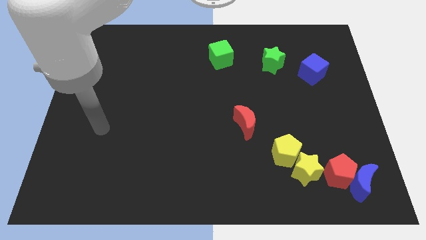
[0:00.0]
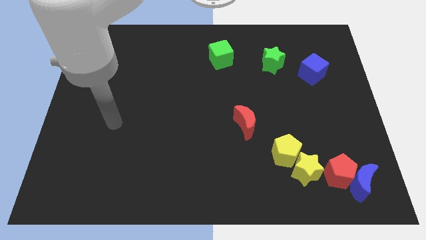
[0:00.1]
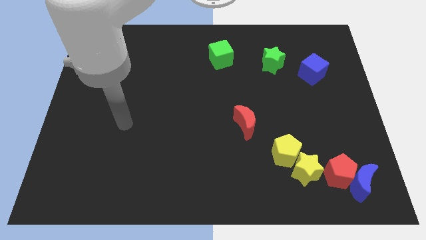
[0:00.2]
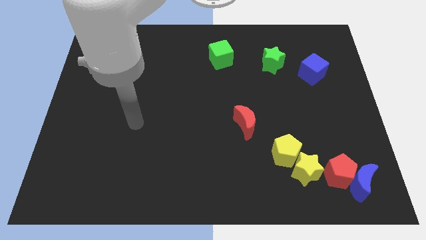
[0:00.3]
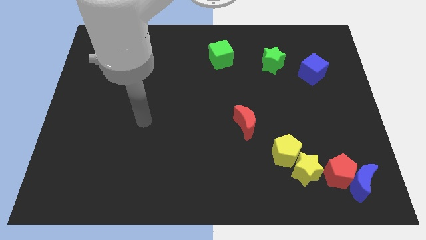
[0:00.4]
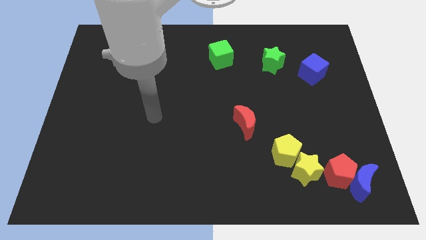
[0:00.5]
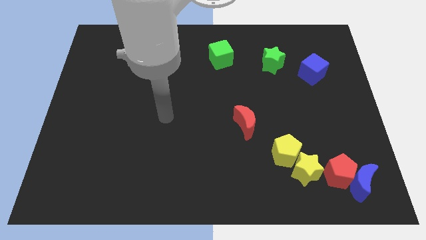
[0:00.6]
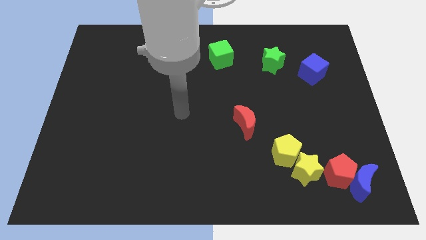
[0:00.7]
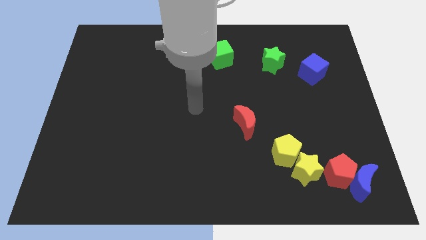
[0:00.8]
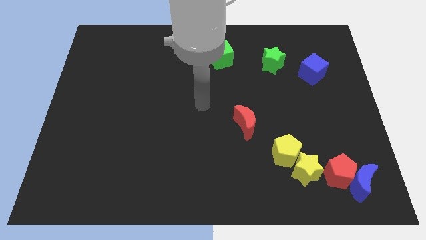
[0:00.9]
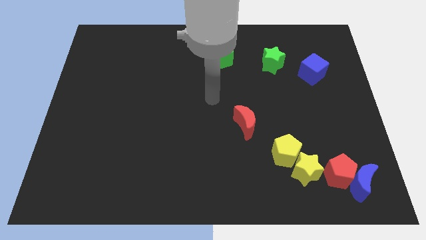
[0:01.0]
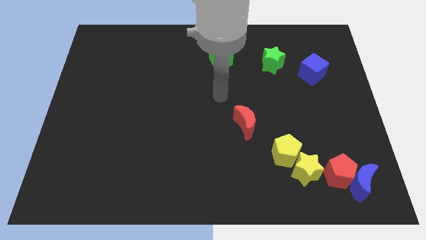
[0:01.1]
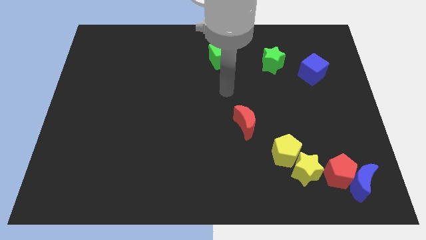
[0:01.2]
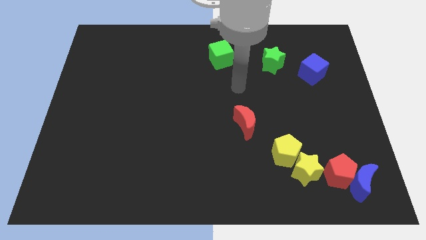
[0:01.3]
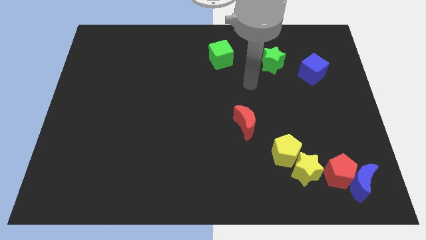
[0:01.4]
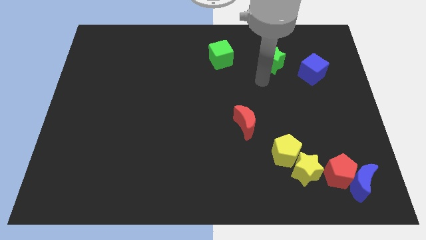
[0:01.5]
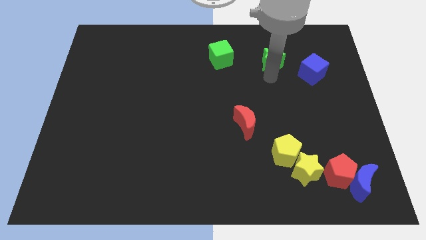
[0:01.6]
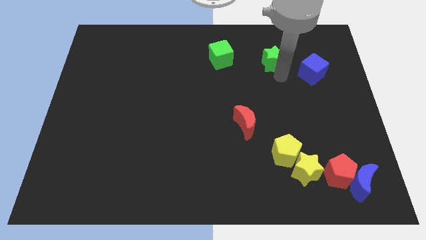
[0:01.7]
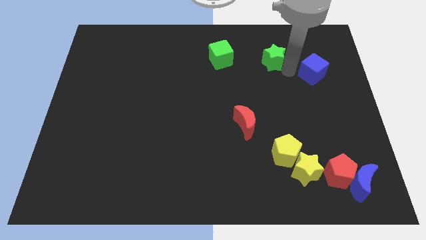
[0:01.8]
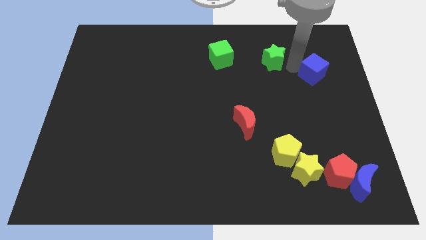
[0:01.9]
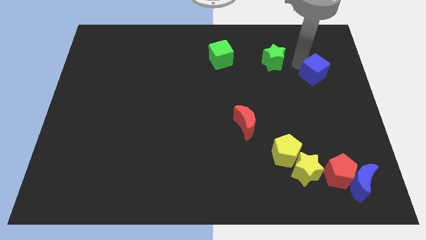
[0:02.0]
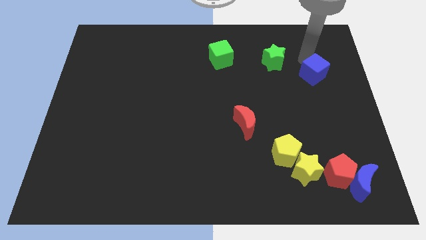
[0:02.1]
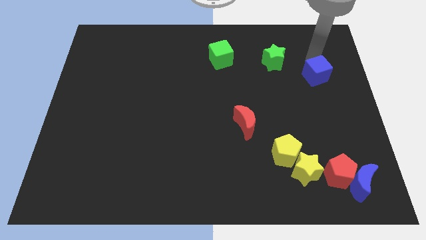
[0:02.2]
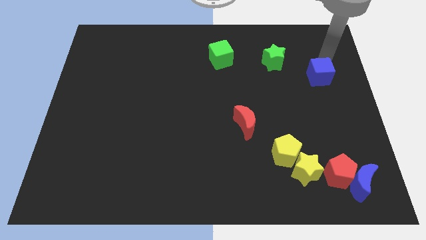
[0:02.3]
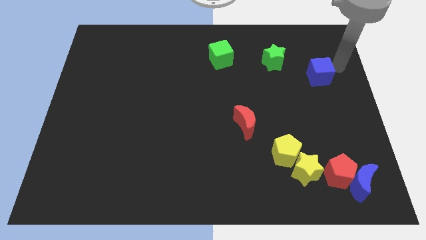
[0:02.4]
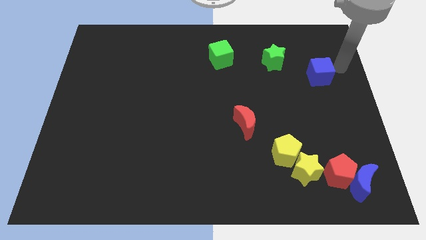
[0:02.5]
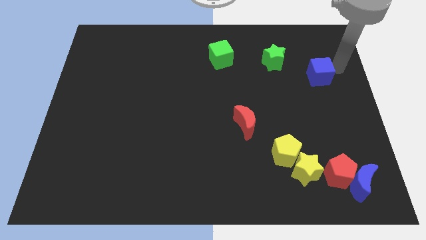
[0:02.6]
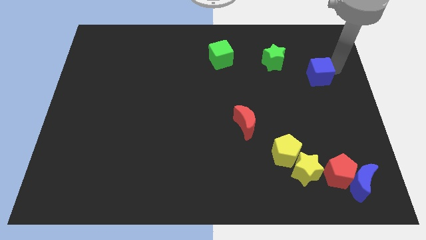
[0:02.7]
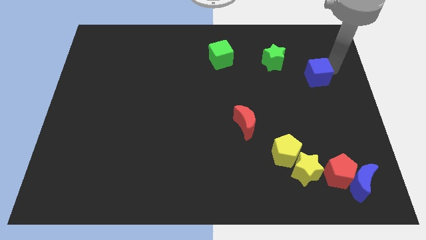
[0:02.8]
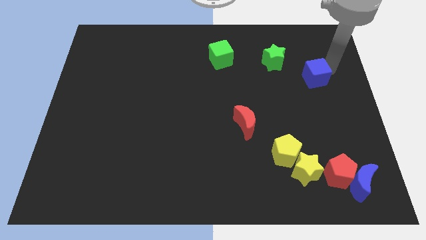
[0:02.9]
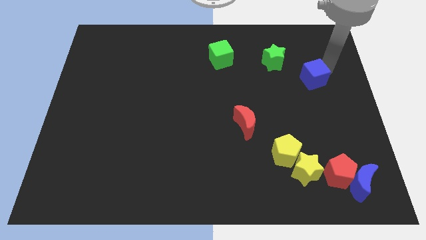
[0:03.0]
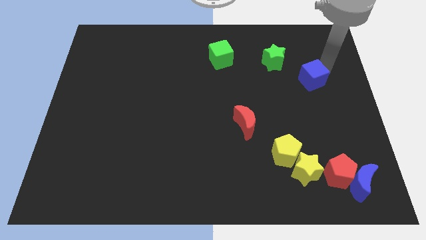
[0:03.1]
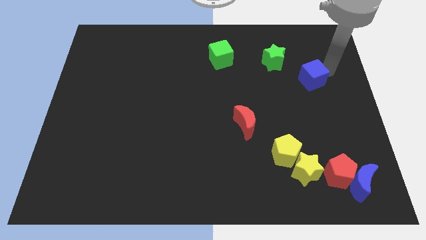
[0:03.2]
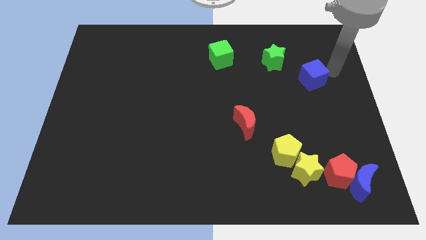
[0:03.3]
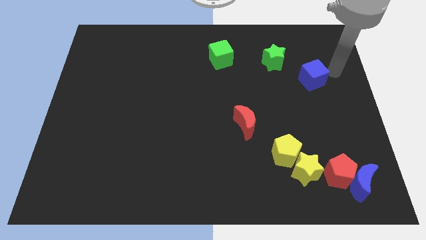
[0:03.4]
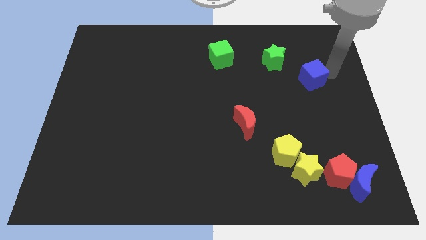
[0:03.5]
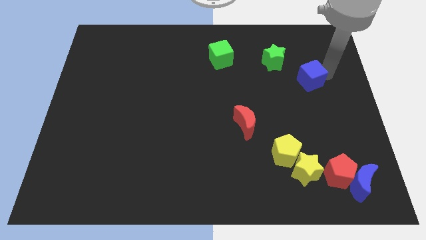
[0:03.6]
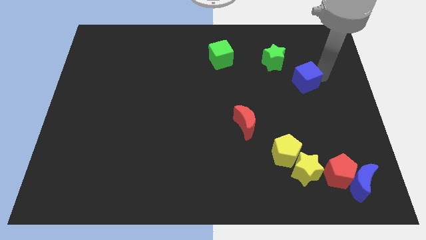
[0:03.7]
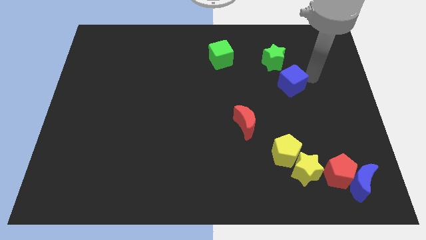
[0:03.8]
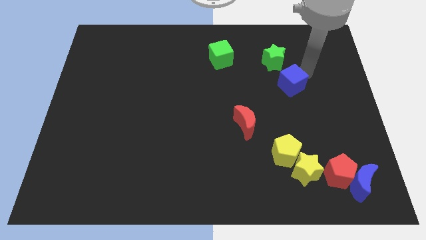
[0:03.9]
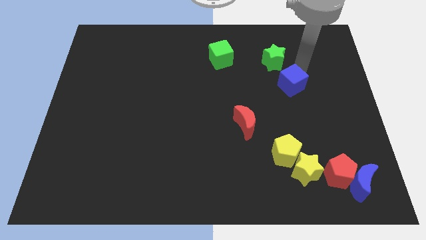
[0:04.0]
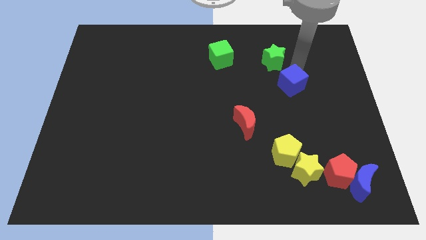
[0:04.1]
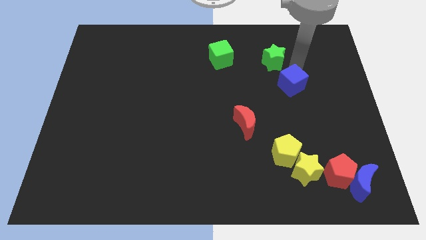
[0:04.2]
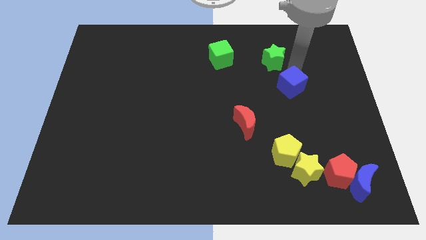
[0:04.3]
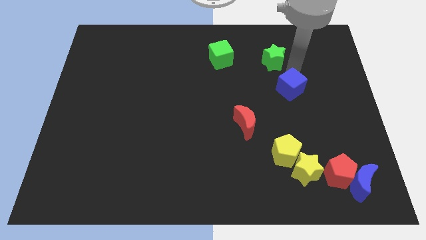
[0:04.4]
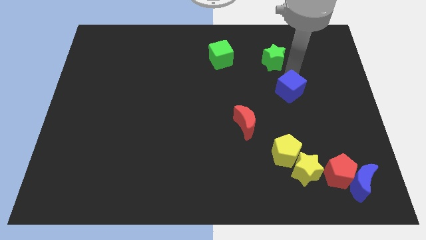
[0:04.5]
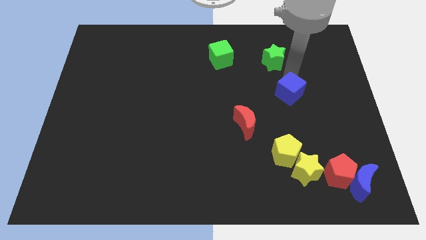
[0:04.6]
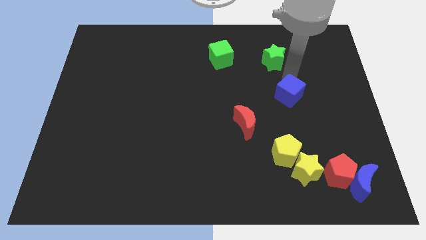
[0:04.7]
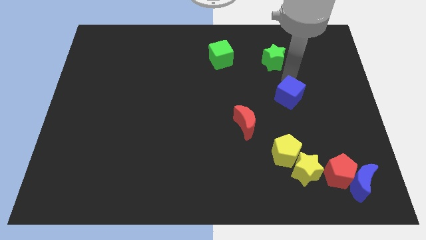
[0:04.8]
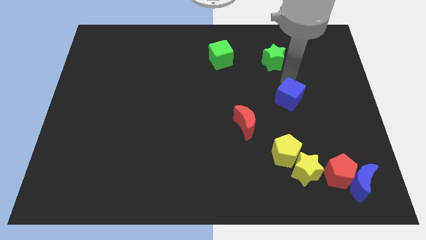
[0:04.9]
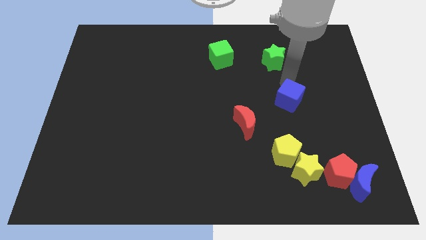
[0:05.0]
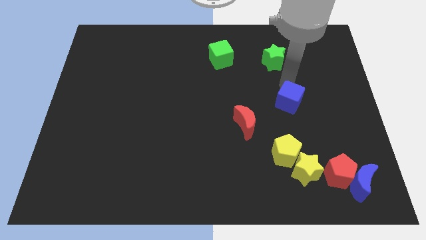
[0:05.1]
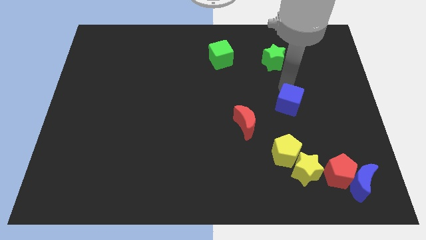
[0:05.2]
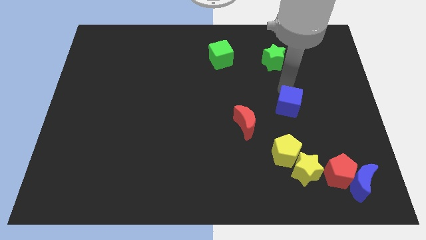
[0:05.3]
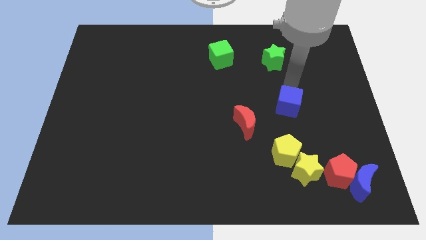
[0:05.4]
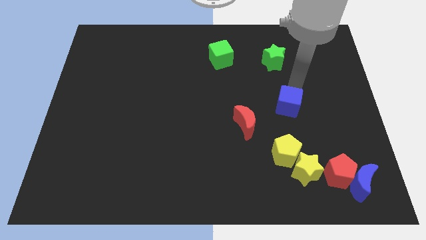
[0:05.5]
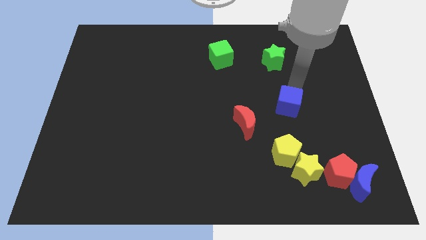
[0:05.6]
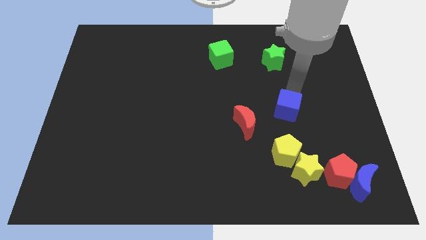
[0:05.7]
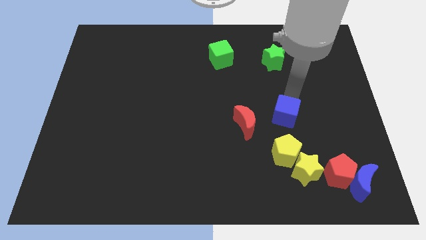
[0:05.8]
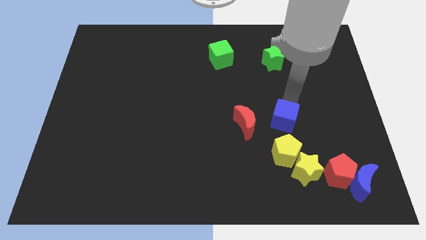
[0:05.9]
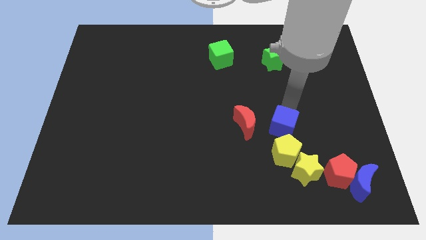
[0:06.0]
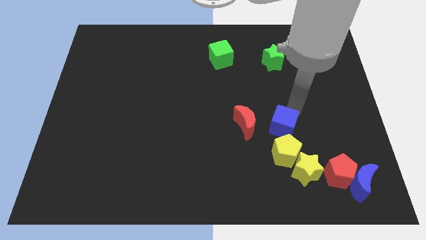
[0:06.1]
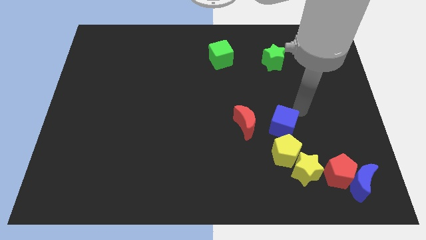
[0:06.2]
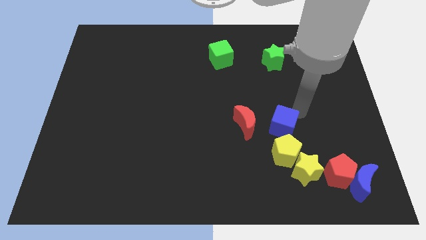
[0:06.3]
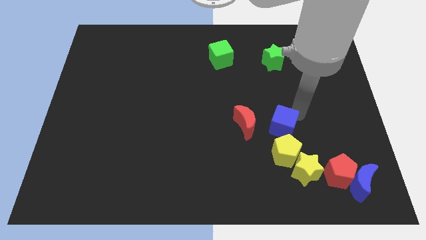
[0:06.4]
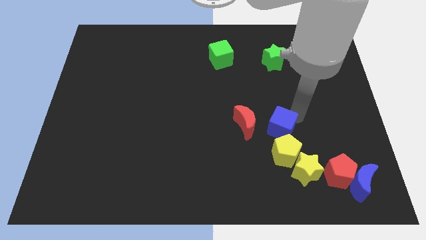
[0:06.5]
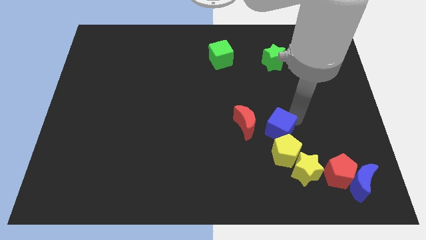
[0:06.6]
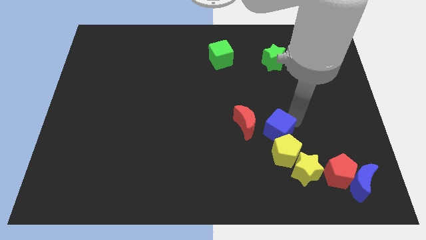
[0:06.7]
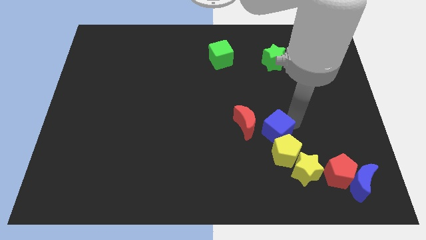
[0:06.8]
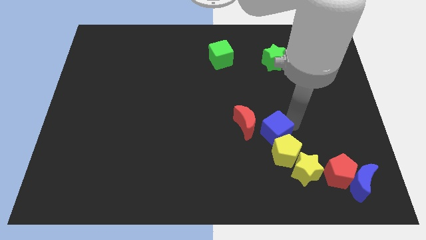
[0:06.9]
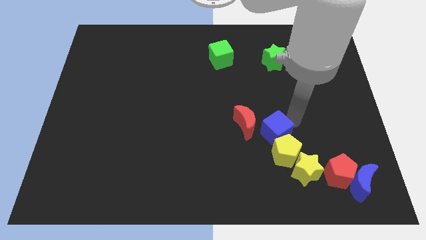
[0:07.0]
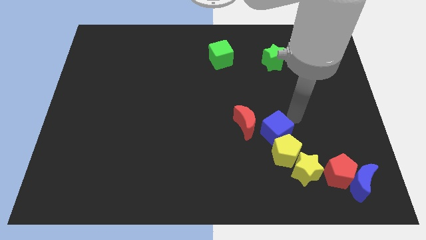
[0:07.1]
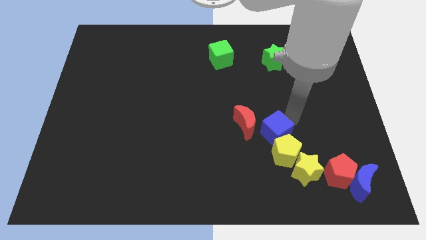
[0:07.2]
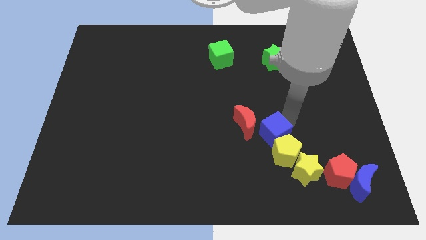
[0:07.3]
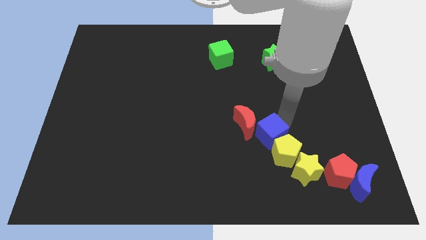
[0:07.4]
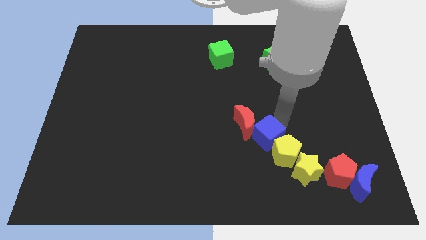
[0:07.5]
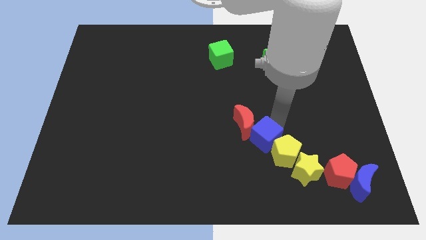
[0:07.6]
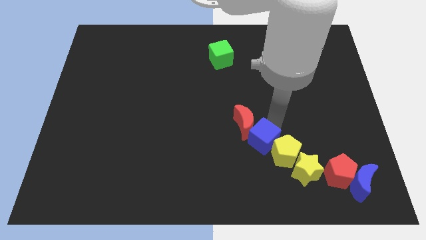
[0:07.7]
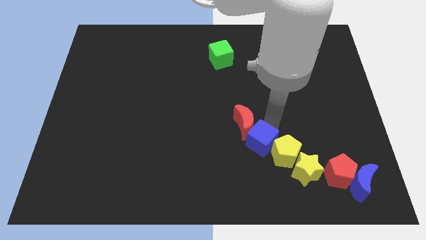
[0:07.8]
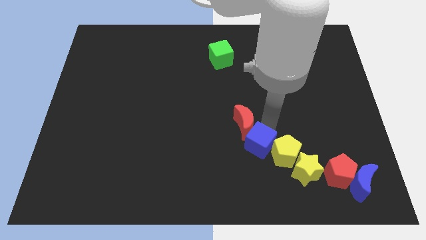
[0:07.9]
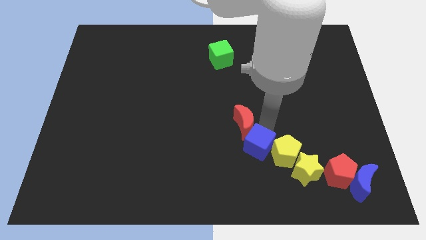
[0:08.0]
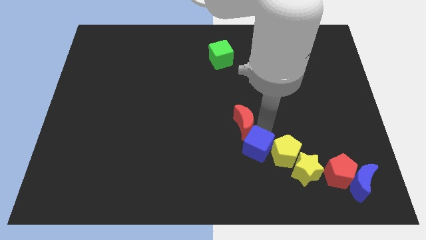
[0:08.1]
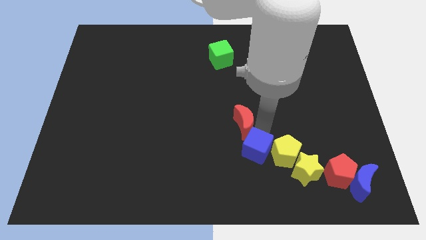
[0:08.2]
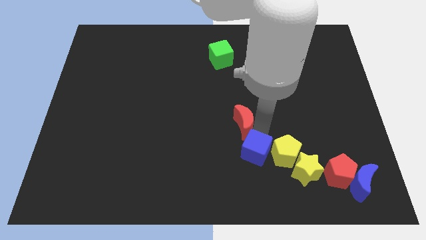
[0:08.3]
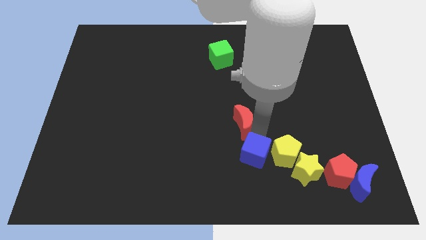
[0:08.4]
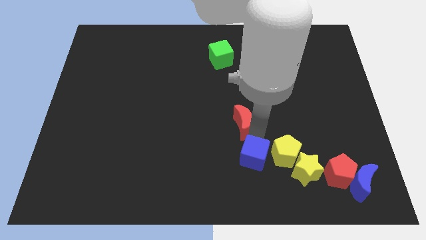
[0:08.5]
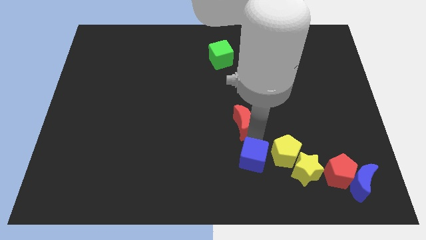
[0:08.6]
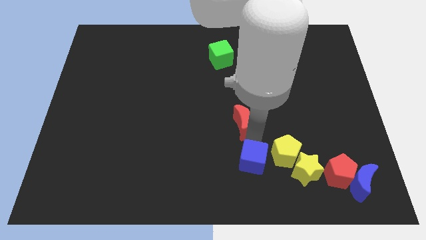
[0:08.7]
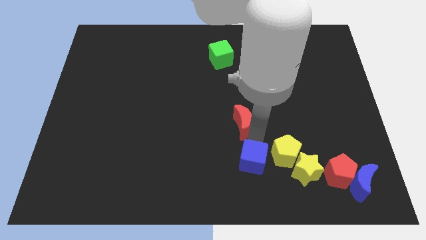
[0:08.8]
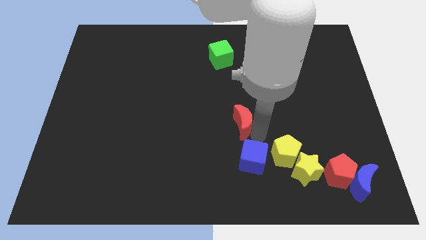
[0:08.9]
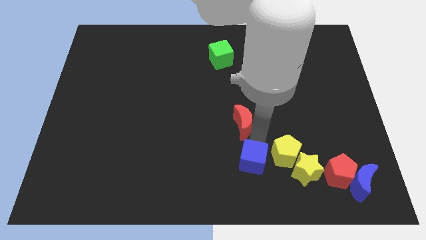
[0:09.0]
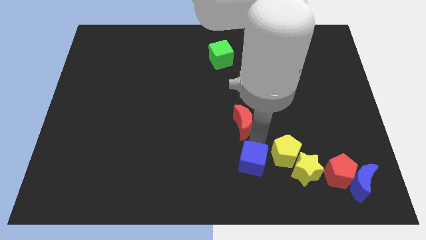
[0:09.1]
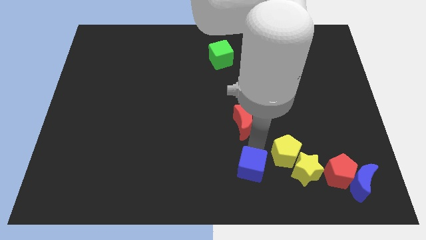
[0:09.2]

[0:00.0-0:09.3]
push the blue cube to the bottom side
